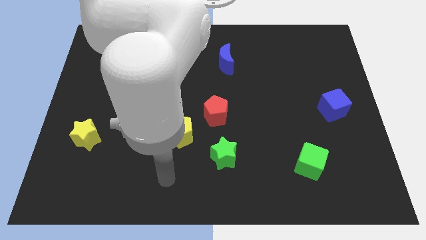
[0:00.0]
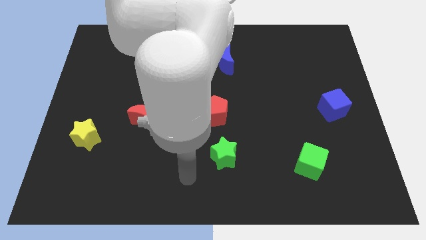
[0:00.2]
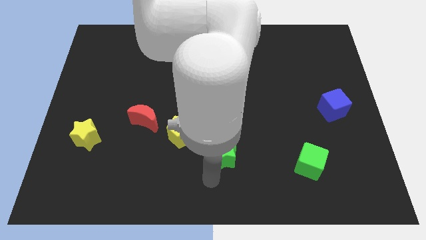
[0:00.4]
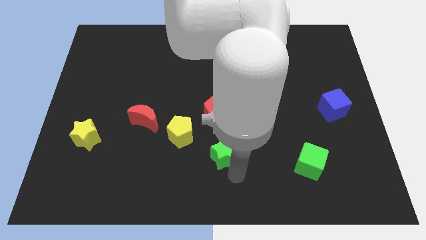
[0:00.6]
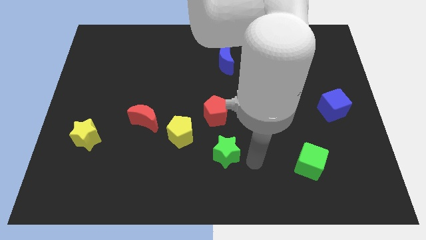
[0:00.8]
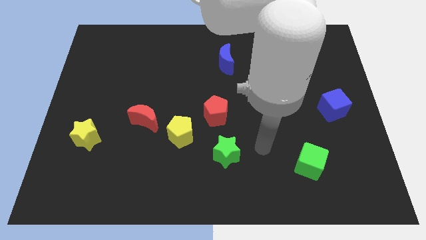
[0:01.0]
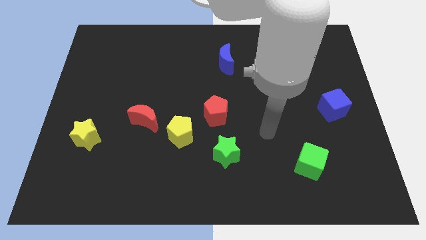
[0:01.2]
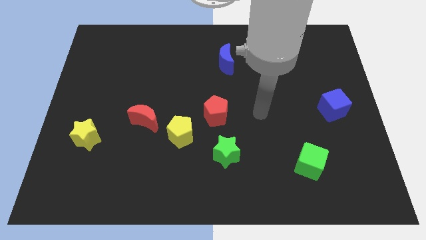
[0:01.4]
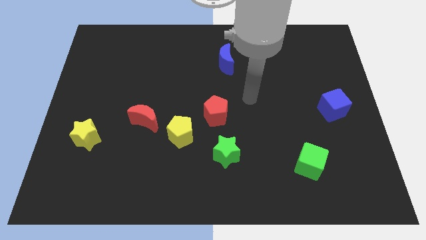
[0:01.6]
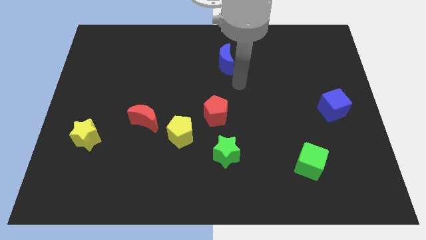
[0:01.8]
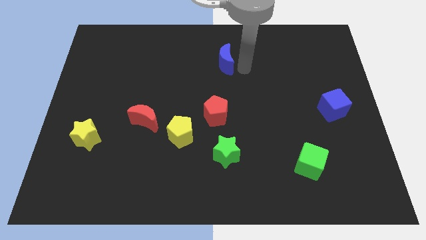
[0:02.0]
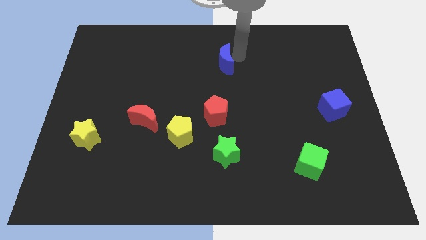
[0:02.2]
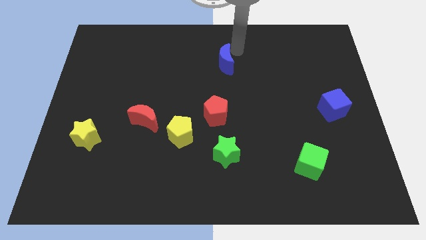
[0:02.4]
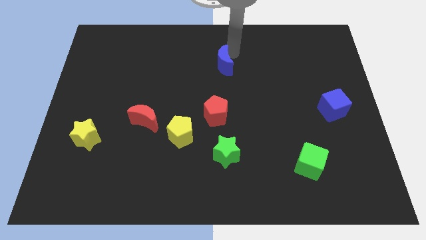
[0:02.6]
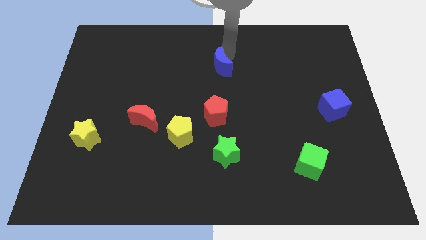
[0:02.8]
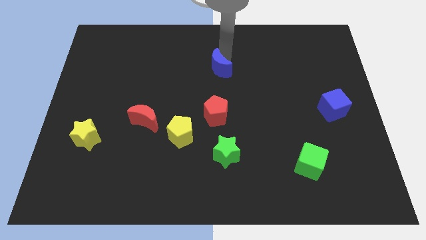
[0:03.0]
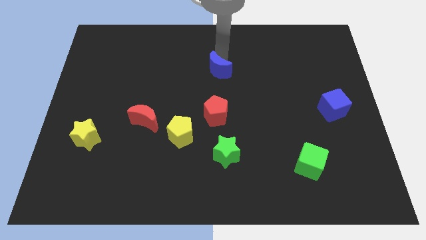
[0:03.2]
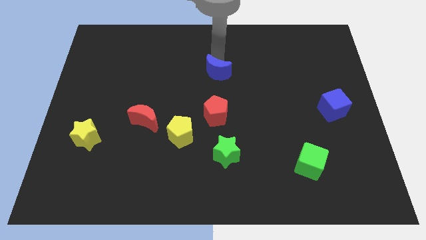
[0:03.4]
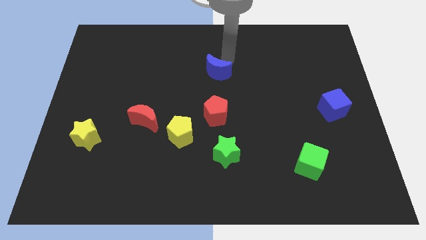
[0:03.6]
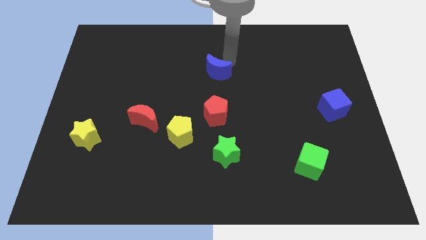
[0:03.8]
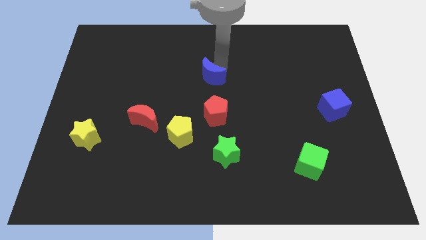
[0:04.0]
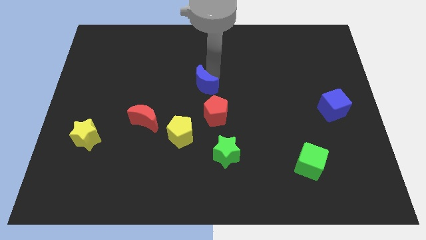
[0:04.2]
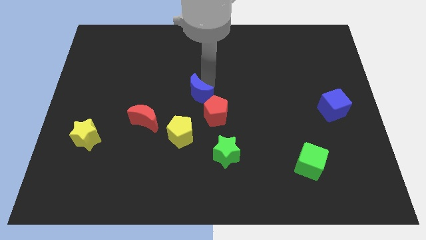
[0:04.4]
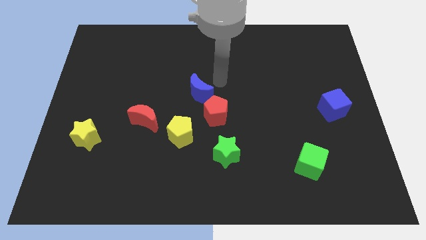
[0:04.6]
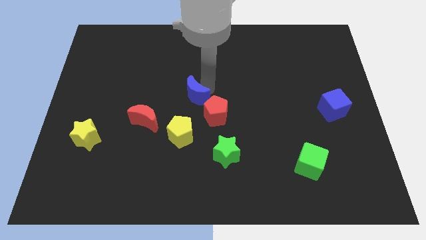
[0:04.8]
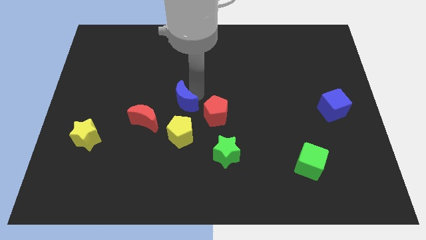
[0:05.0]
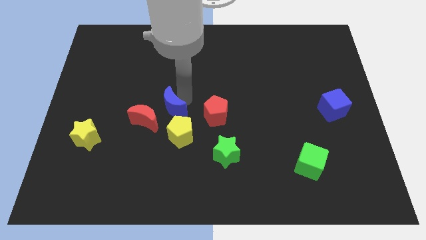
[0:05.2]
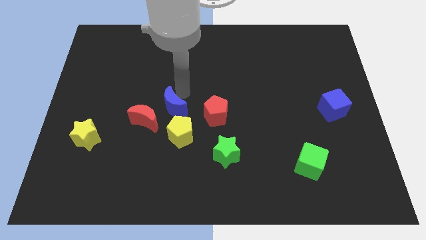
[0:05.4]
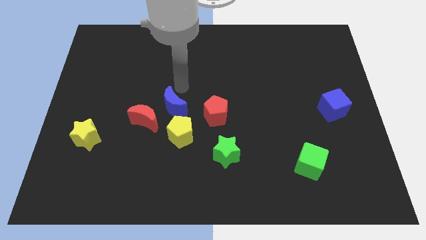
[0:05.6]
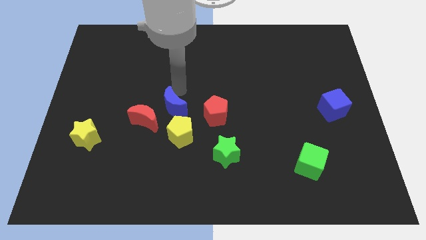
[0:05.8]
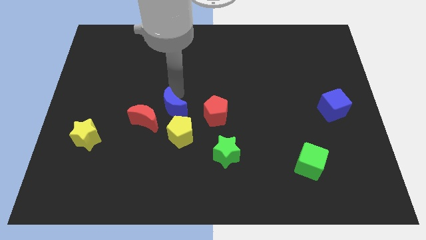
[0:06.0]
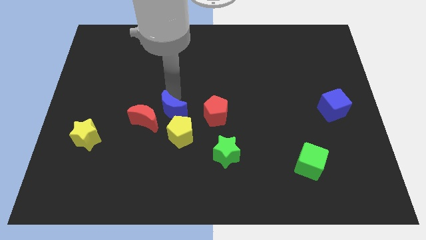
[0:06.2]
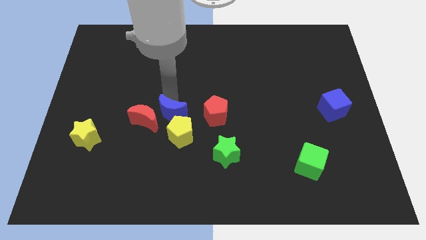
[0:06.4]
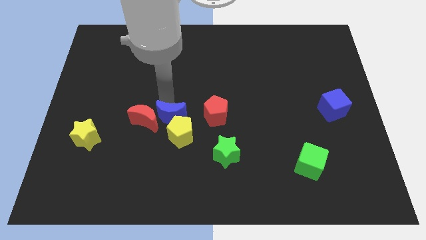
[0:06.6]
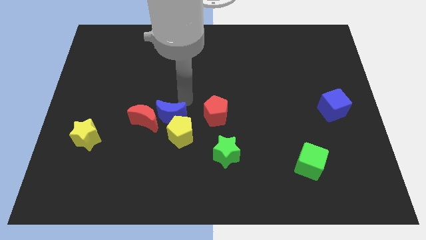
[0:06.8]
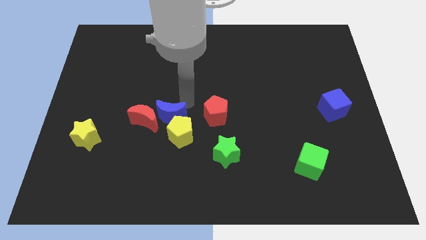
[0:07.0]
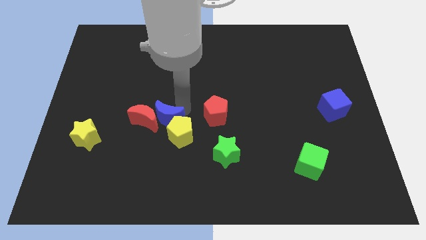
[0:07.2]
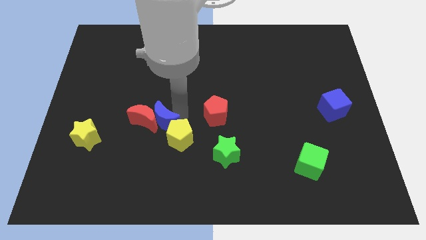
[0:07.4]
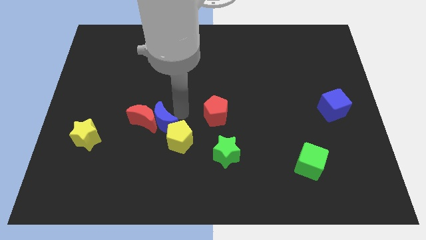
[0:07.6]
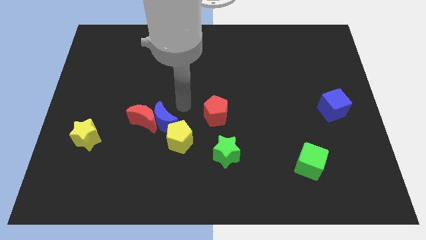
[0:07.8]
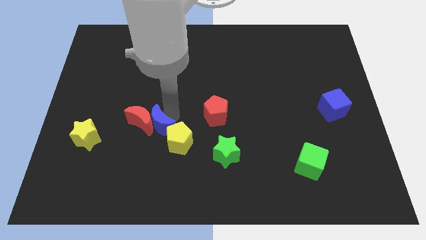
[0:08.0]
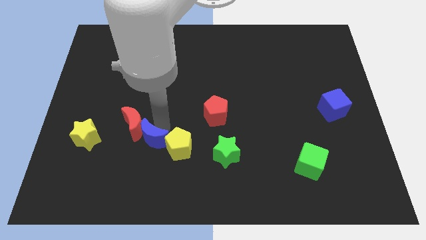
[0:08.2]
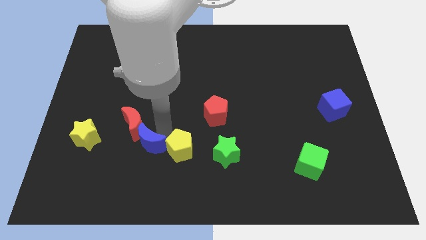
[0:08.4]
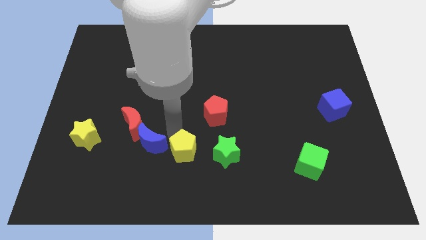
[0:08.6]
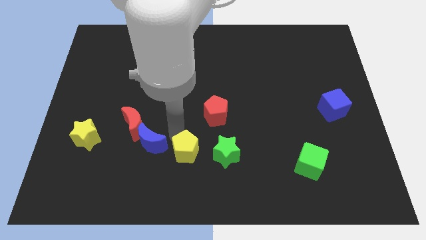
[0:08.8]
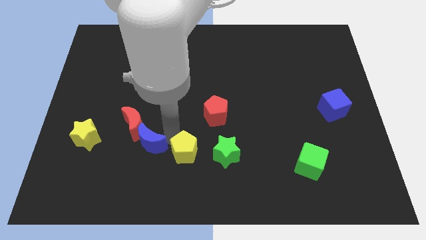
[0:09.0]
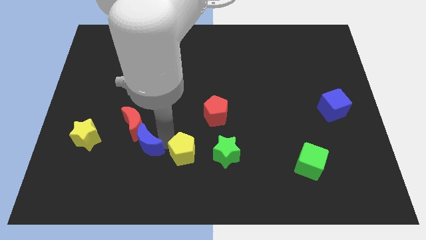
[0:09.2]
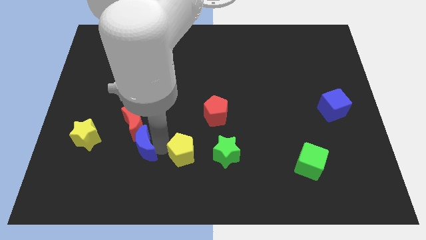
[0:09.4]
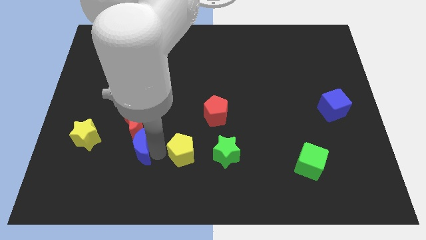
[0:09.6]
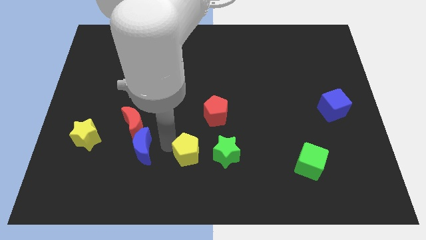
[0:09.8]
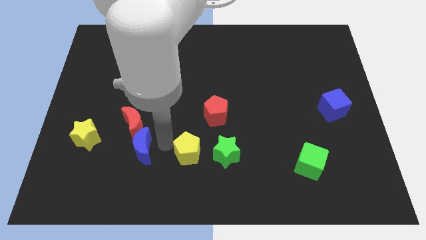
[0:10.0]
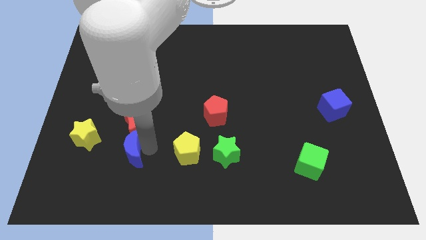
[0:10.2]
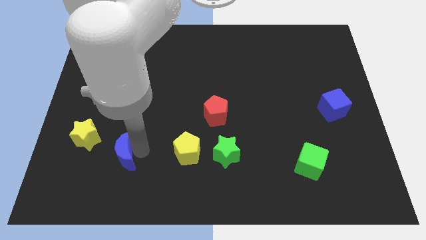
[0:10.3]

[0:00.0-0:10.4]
push the blue moon to the bottom right of the yellow star
